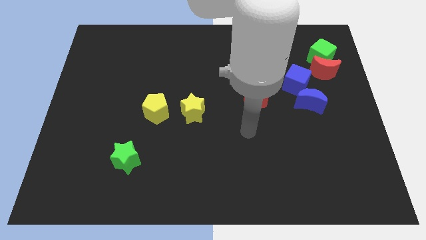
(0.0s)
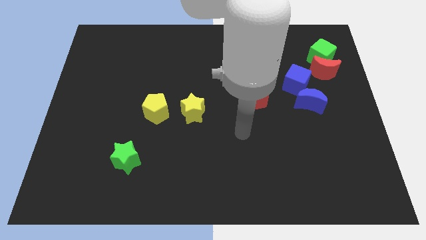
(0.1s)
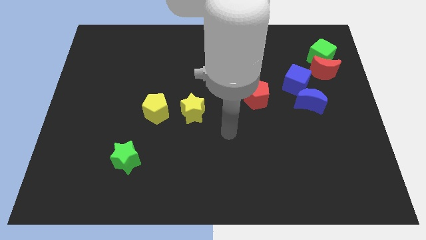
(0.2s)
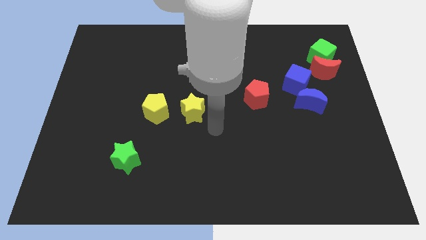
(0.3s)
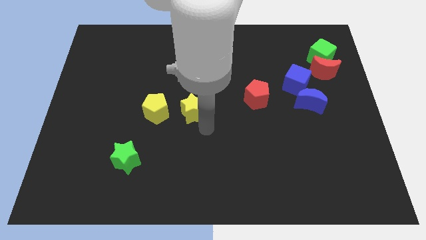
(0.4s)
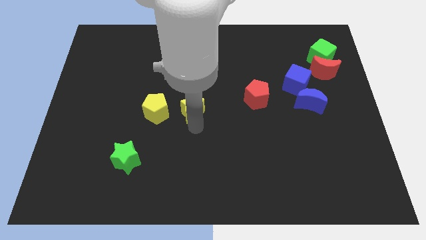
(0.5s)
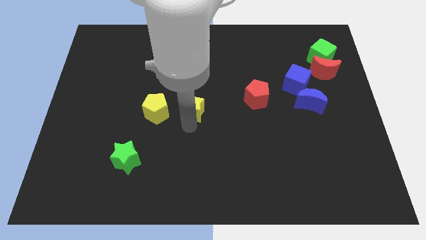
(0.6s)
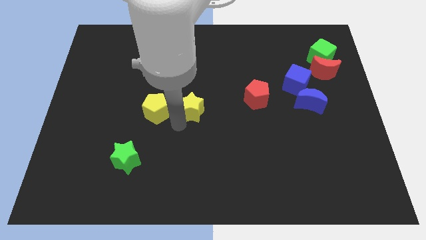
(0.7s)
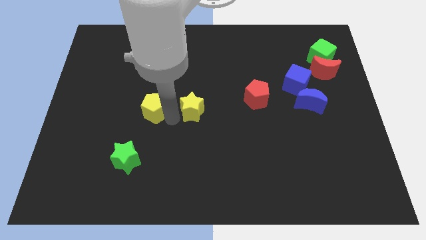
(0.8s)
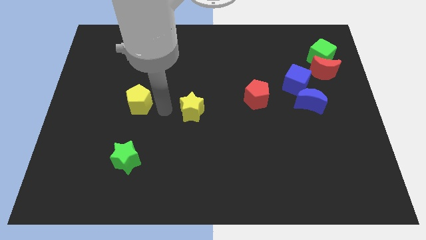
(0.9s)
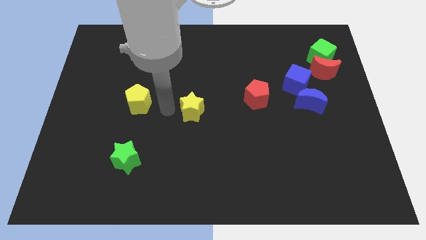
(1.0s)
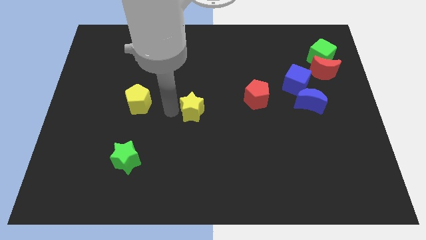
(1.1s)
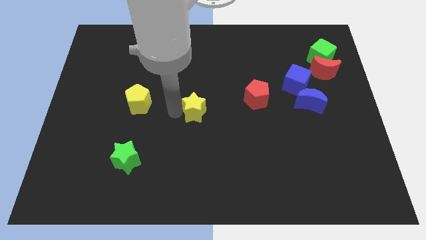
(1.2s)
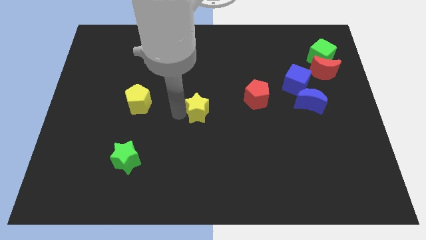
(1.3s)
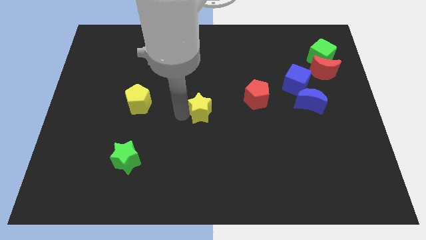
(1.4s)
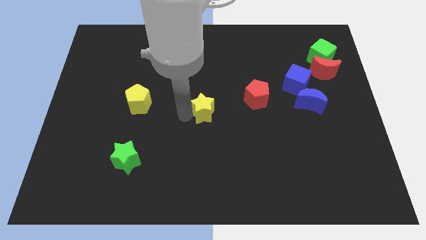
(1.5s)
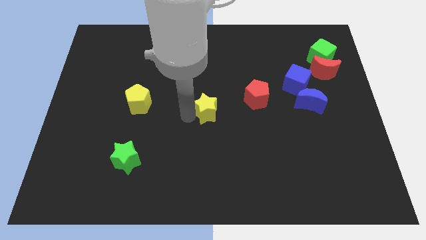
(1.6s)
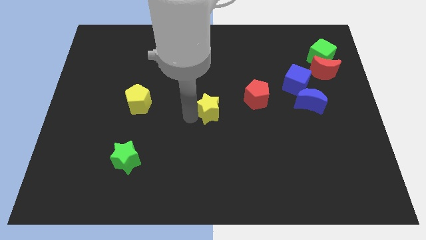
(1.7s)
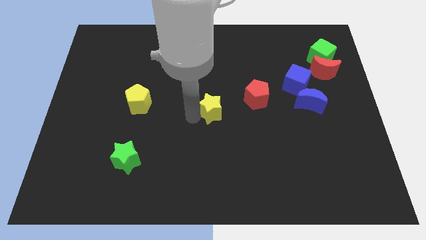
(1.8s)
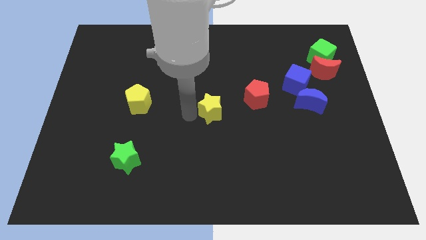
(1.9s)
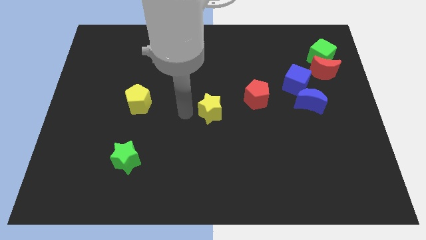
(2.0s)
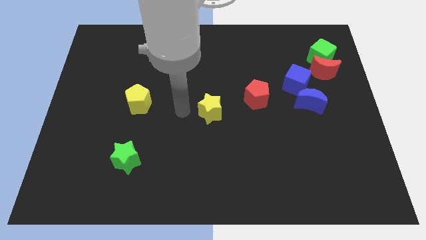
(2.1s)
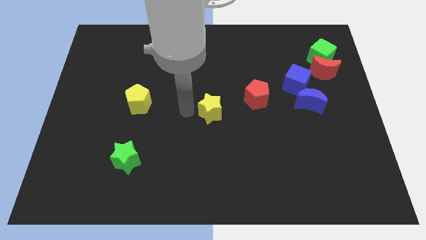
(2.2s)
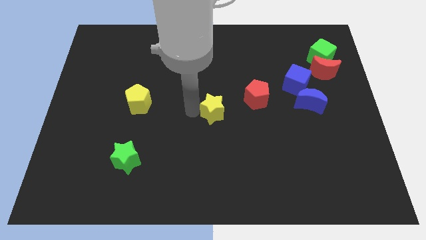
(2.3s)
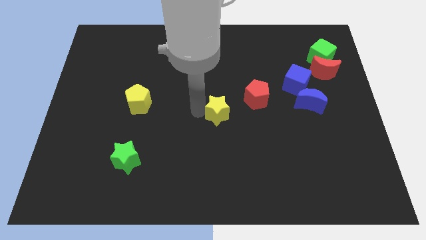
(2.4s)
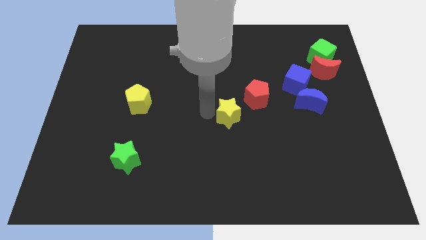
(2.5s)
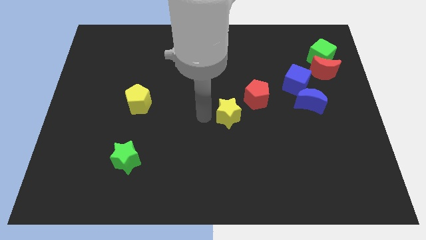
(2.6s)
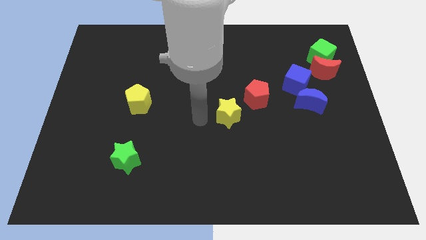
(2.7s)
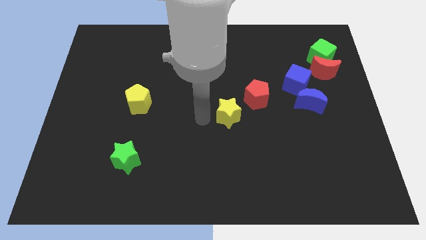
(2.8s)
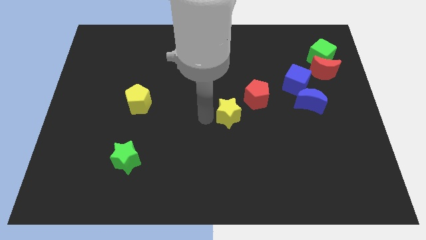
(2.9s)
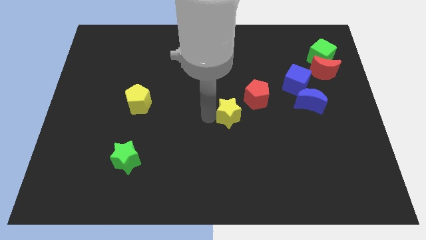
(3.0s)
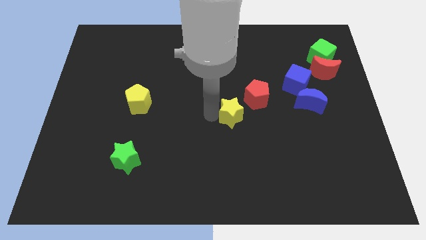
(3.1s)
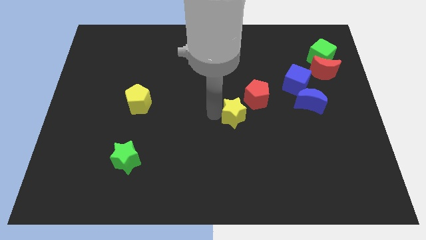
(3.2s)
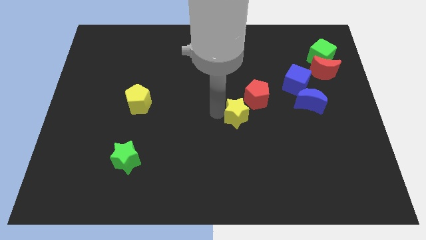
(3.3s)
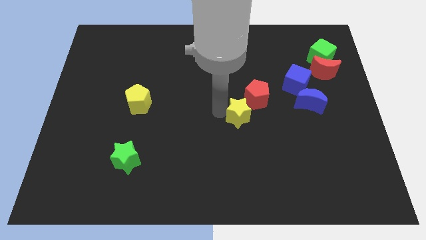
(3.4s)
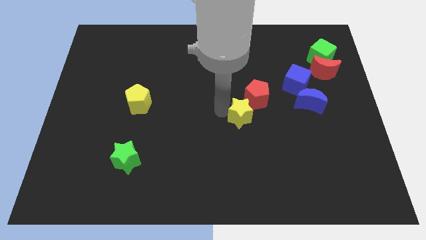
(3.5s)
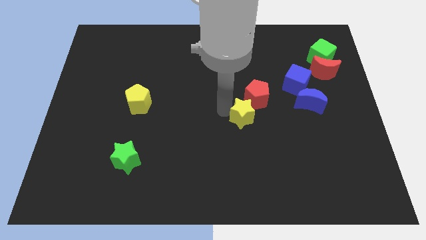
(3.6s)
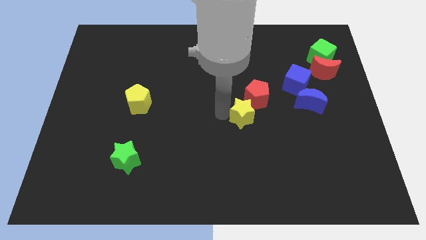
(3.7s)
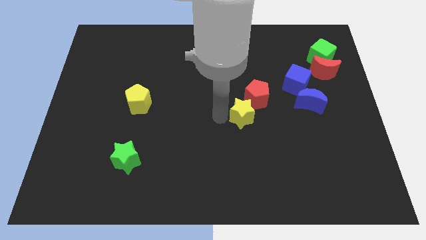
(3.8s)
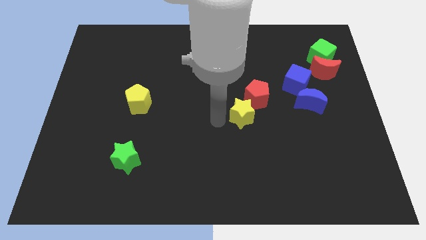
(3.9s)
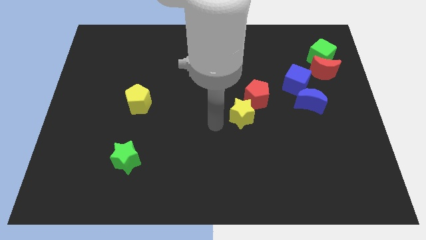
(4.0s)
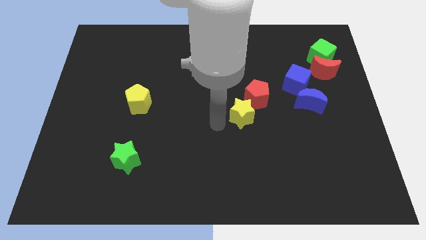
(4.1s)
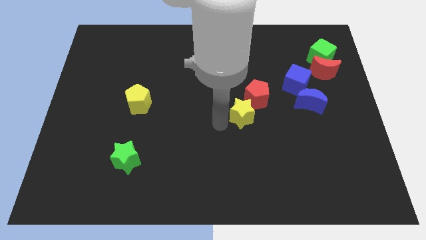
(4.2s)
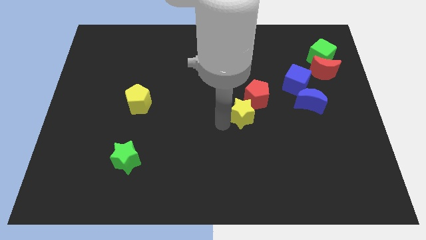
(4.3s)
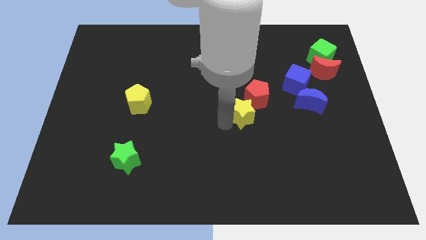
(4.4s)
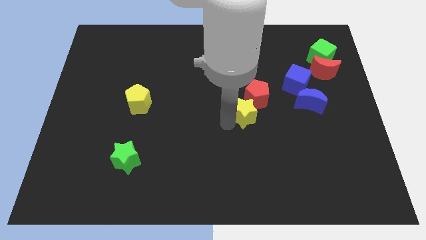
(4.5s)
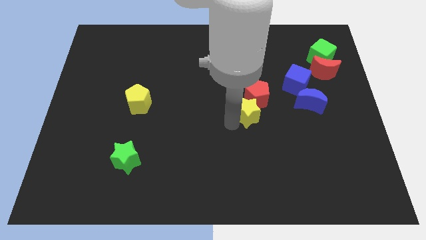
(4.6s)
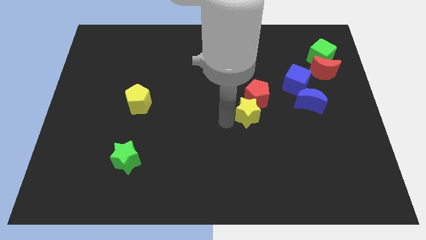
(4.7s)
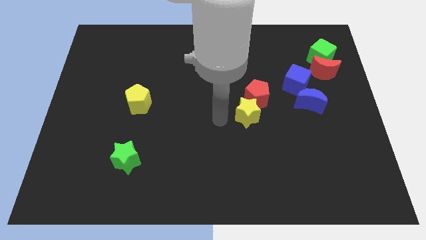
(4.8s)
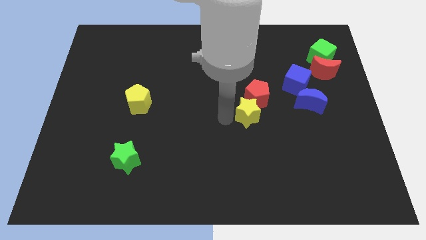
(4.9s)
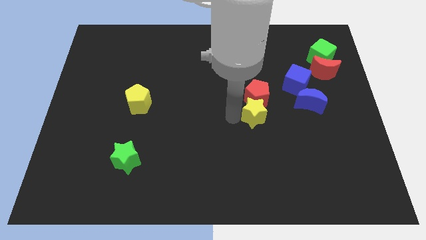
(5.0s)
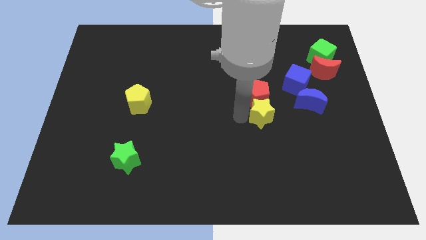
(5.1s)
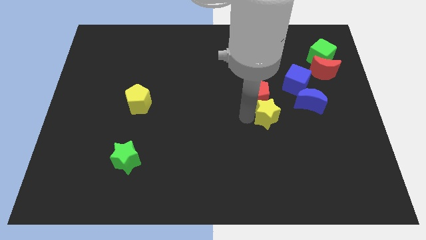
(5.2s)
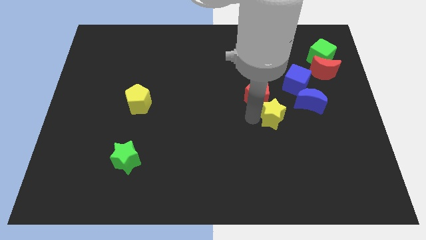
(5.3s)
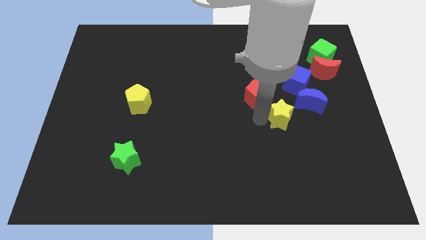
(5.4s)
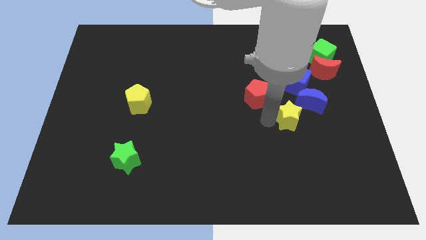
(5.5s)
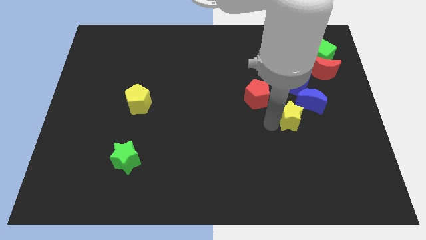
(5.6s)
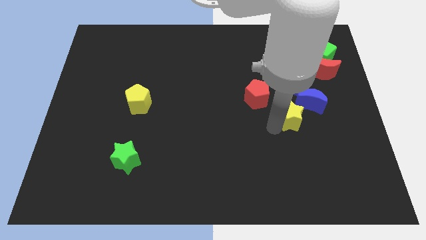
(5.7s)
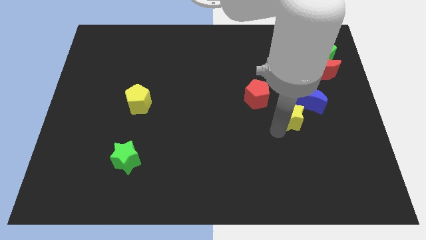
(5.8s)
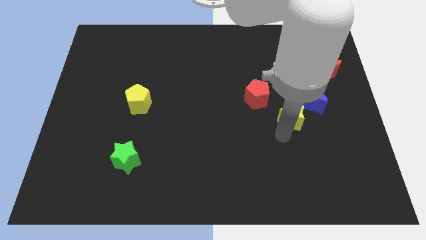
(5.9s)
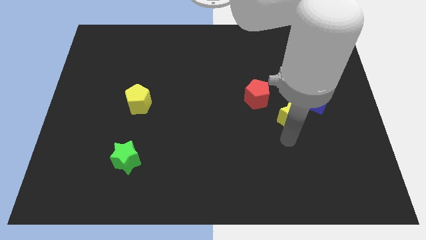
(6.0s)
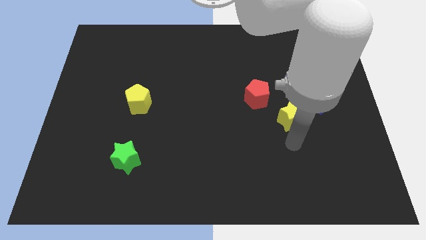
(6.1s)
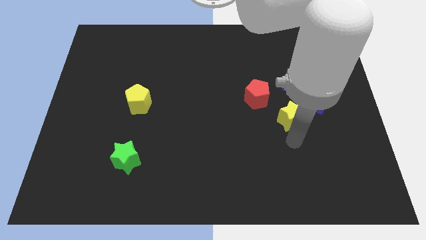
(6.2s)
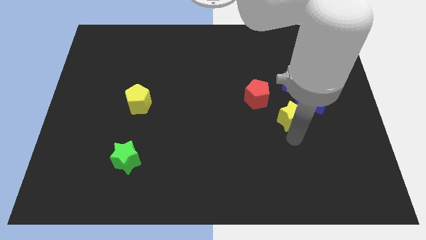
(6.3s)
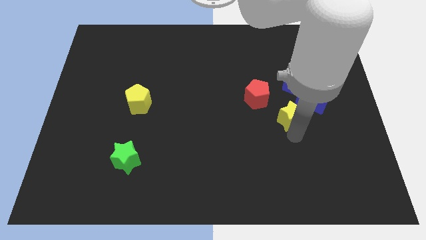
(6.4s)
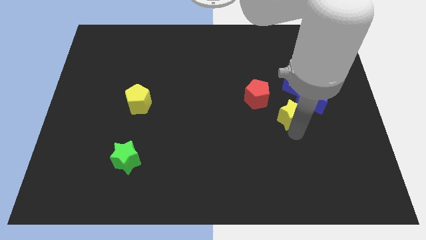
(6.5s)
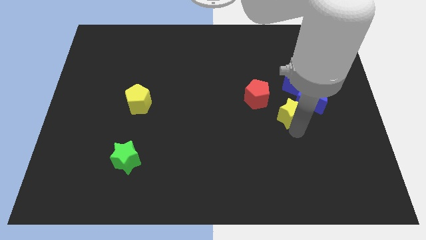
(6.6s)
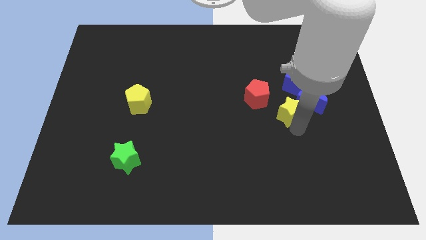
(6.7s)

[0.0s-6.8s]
slide the yellow star close to the blue moon

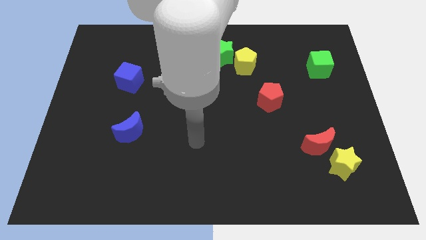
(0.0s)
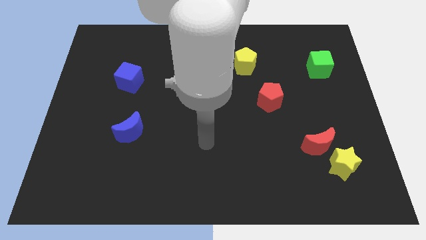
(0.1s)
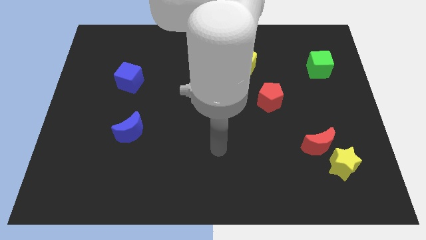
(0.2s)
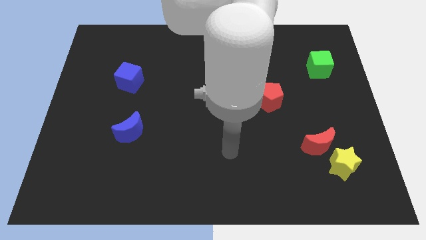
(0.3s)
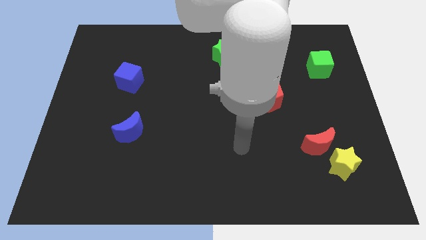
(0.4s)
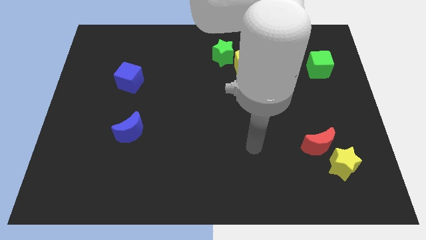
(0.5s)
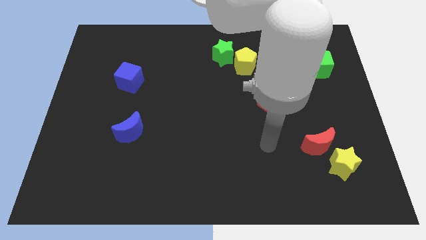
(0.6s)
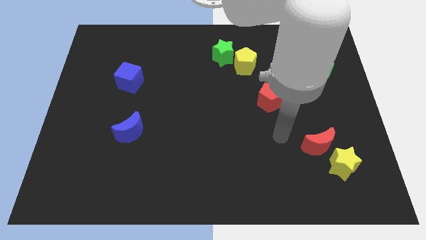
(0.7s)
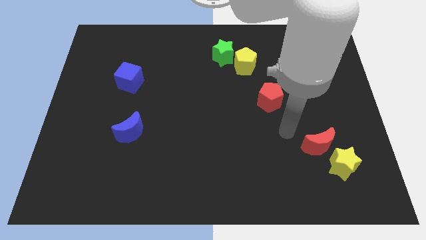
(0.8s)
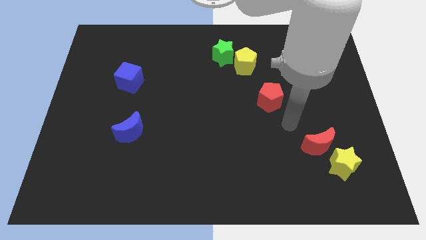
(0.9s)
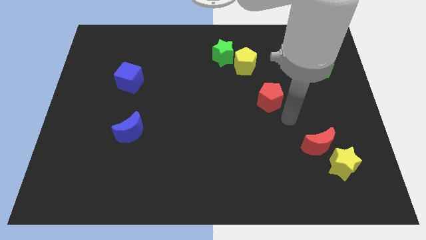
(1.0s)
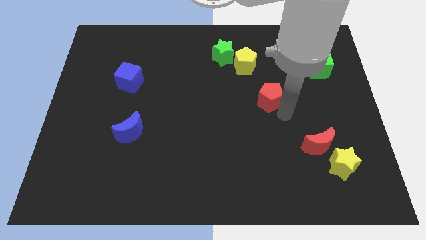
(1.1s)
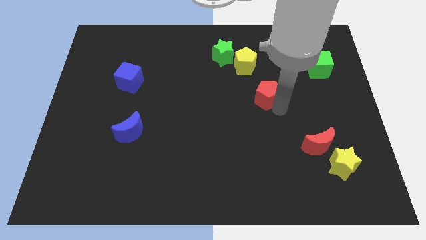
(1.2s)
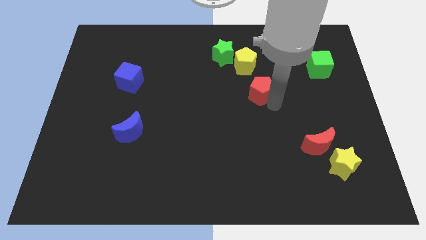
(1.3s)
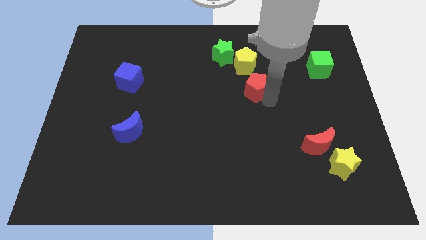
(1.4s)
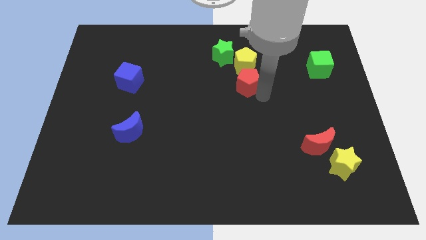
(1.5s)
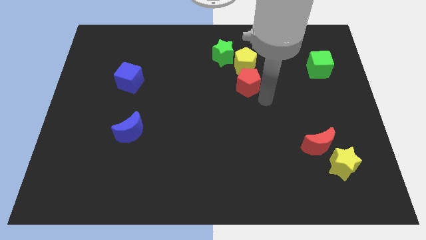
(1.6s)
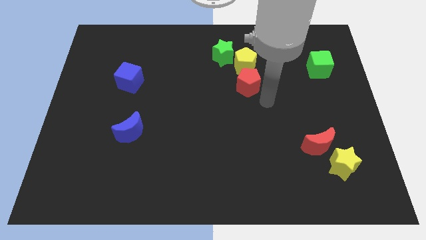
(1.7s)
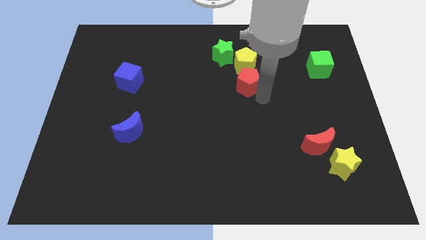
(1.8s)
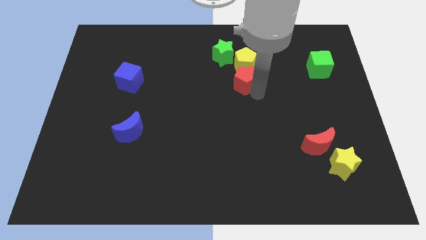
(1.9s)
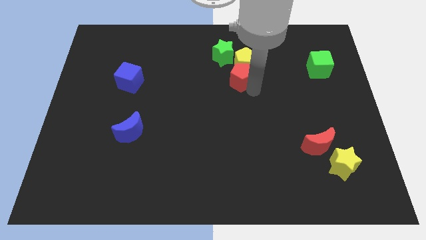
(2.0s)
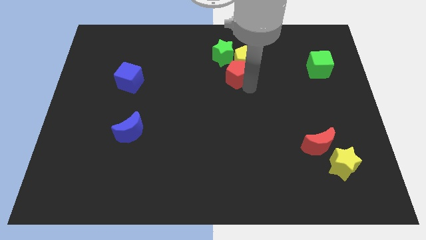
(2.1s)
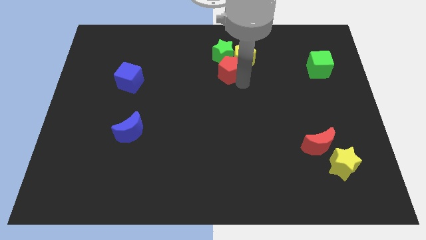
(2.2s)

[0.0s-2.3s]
slide the red pentagon close to the green star
